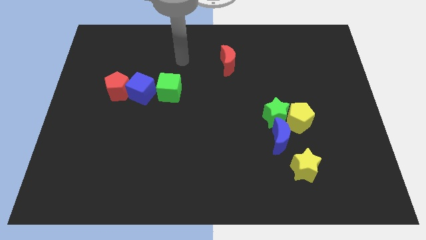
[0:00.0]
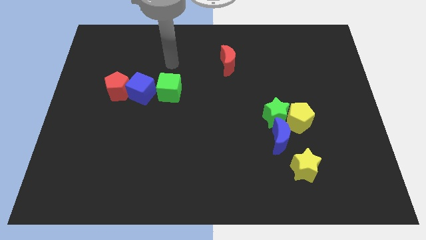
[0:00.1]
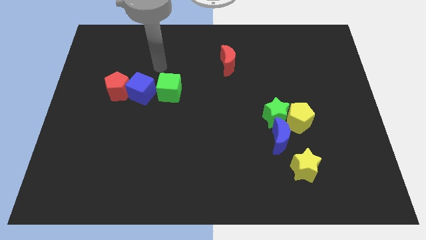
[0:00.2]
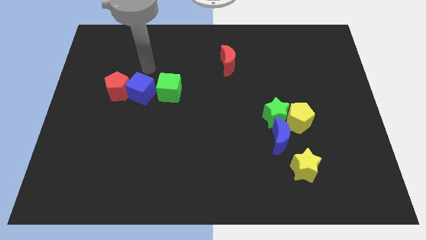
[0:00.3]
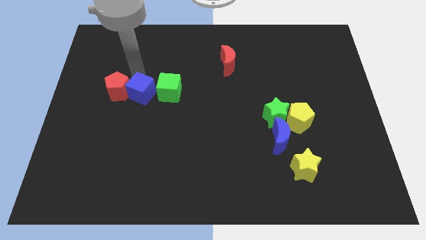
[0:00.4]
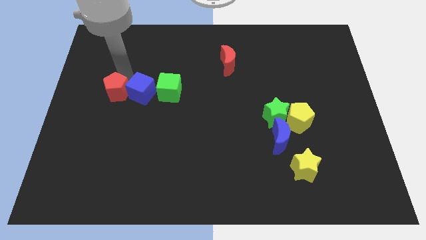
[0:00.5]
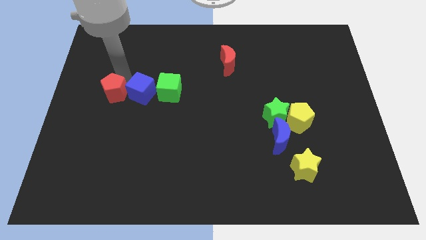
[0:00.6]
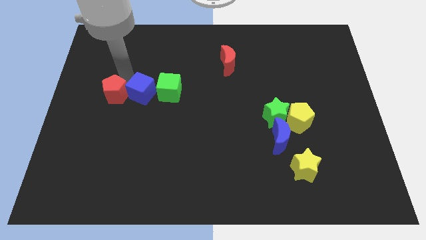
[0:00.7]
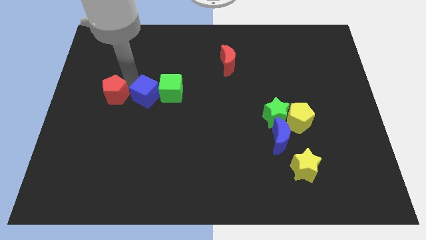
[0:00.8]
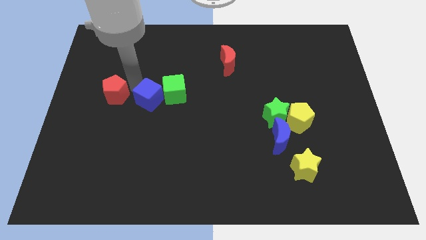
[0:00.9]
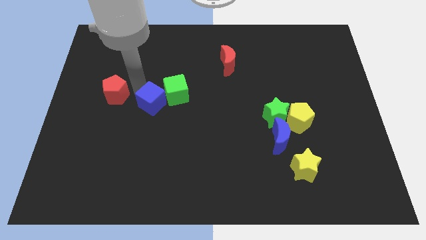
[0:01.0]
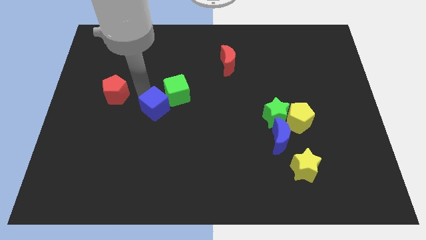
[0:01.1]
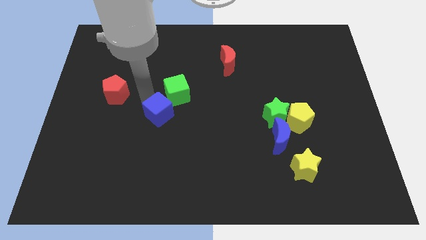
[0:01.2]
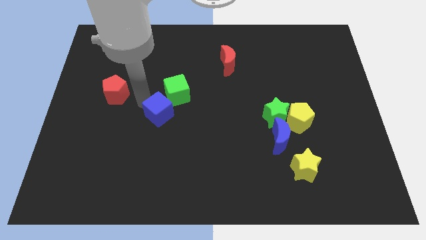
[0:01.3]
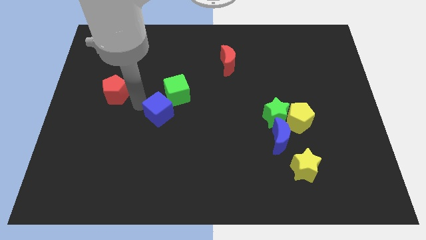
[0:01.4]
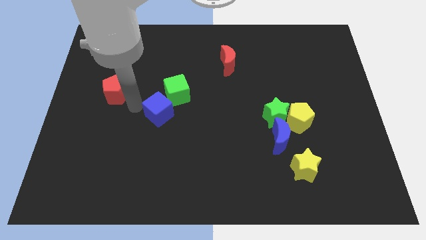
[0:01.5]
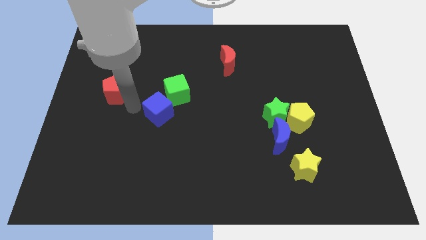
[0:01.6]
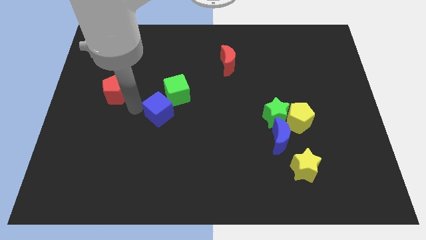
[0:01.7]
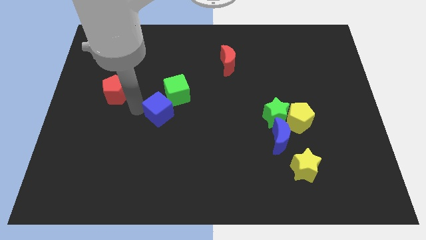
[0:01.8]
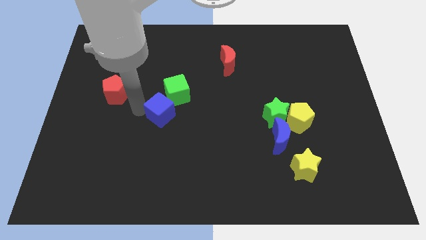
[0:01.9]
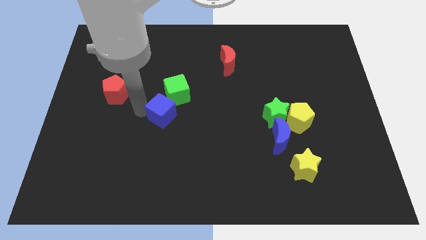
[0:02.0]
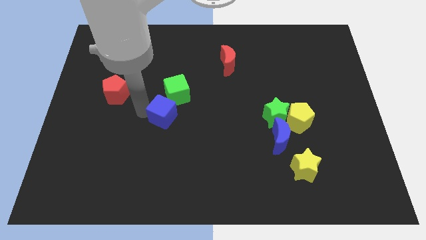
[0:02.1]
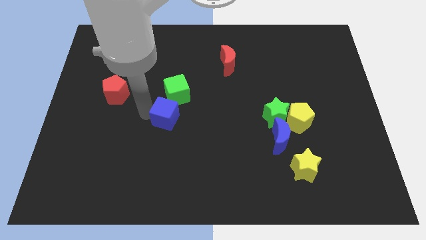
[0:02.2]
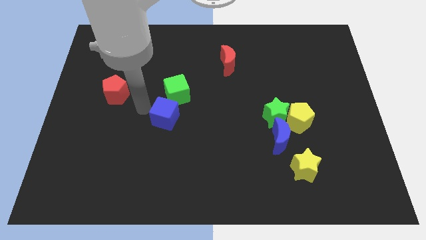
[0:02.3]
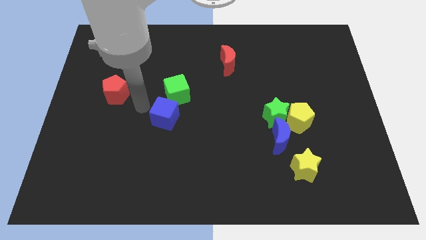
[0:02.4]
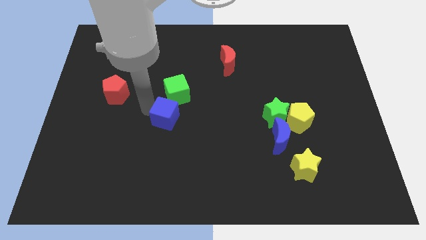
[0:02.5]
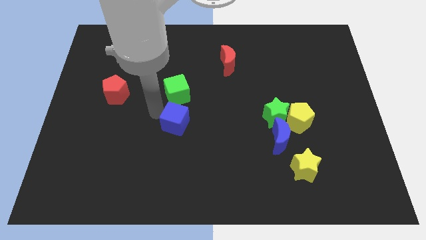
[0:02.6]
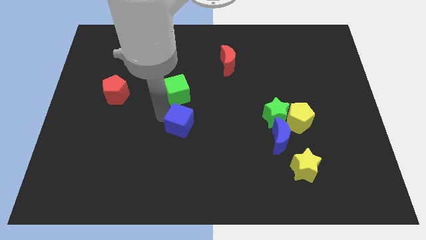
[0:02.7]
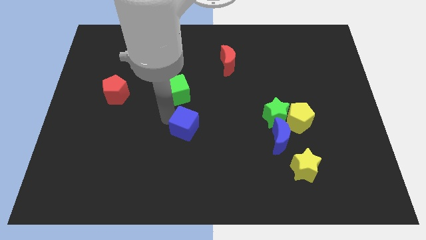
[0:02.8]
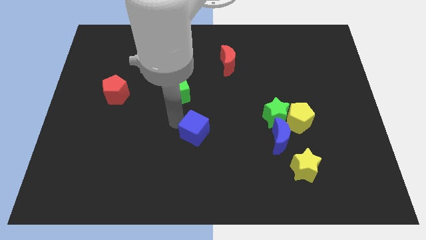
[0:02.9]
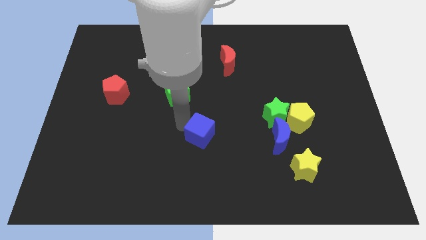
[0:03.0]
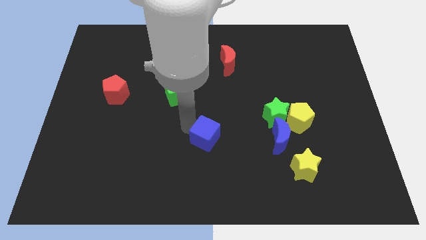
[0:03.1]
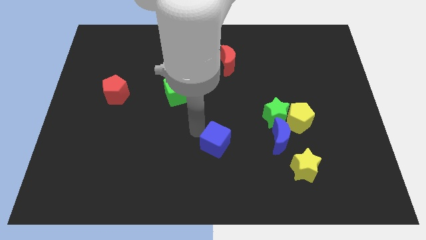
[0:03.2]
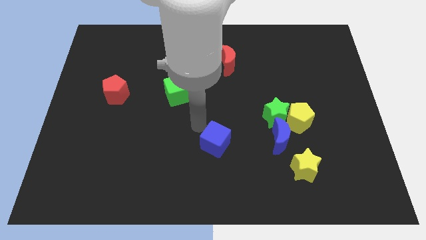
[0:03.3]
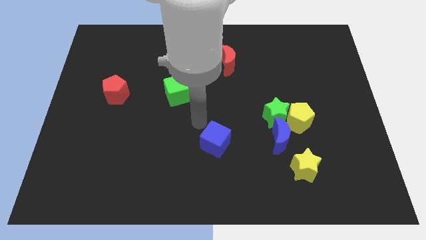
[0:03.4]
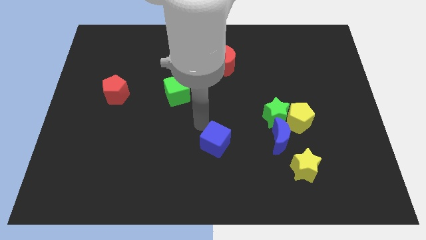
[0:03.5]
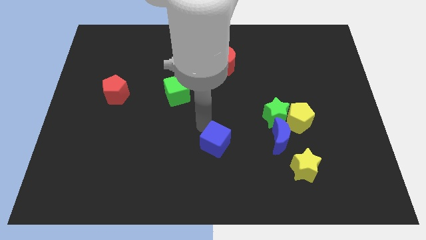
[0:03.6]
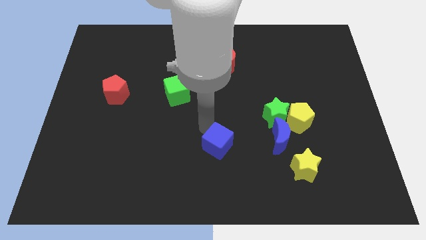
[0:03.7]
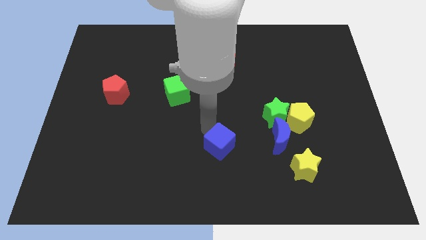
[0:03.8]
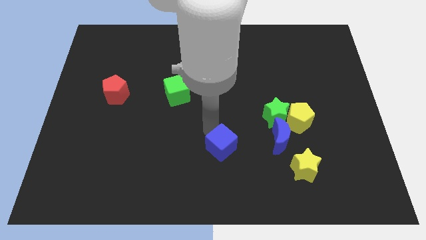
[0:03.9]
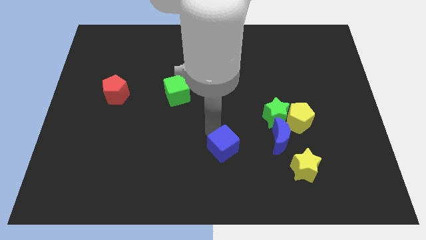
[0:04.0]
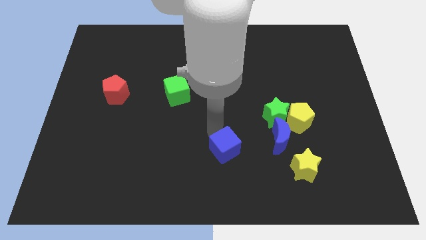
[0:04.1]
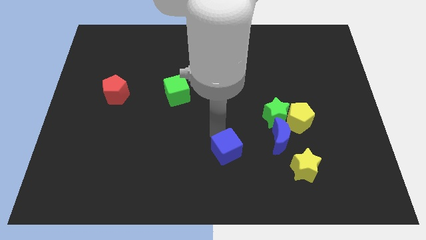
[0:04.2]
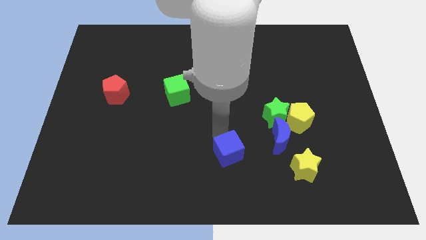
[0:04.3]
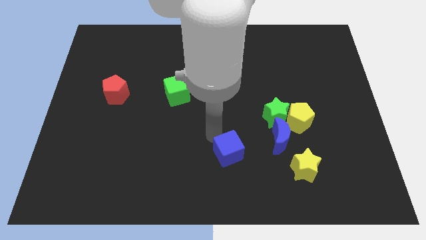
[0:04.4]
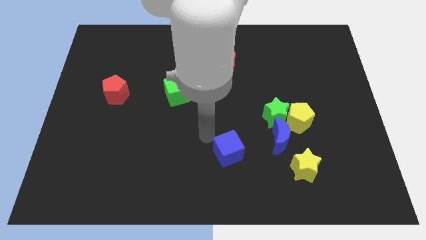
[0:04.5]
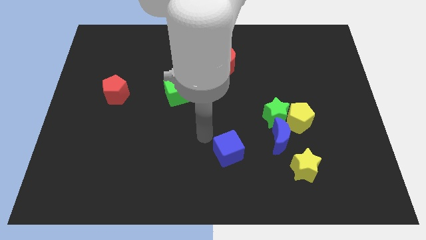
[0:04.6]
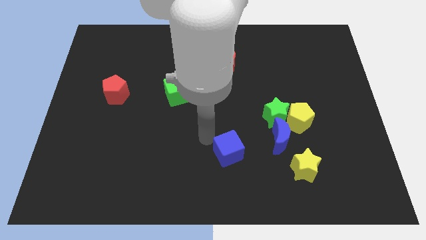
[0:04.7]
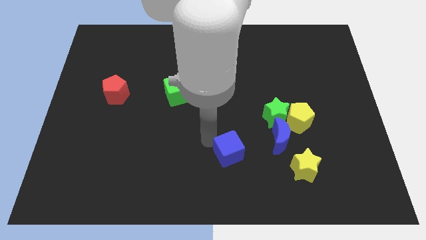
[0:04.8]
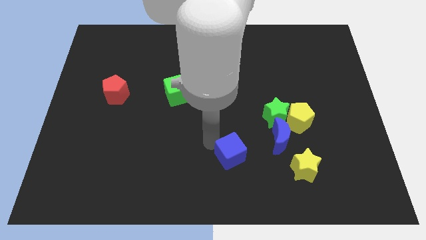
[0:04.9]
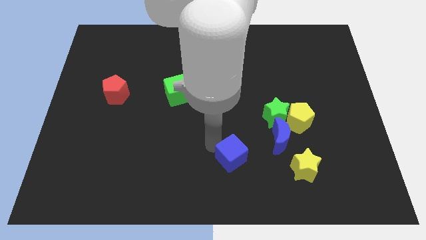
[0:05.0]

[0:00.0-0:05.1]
put the blue cube left of the yellow star

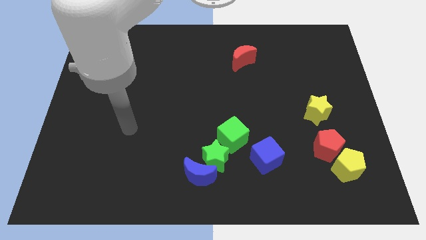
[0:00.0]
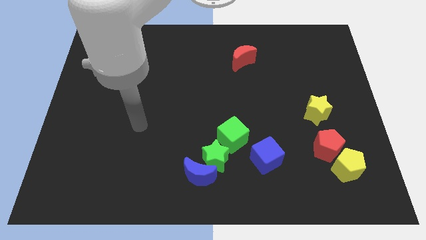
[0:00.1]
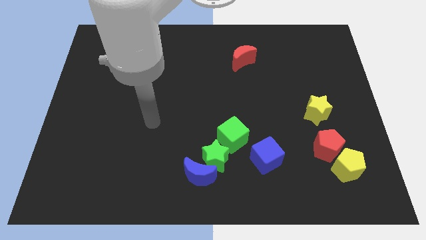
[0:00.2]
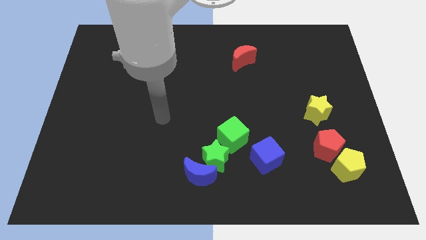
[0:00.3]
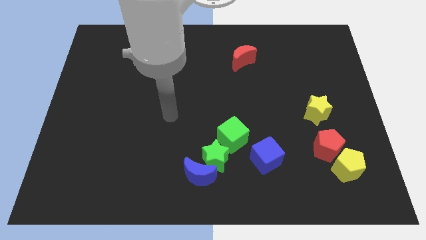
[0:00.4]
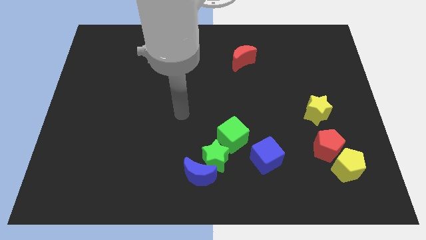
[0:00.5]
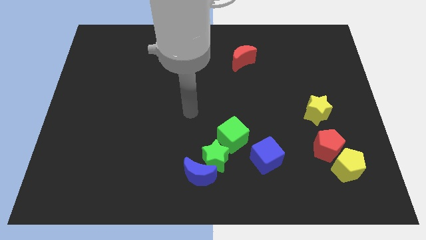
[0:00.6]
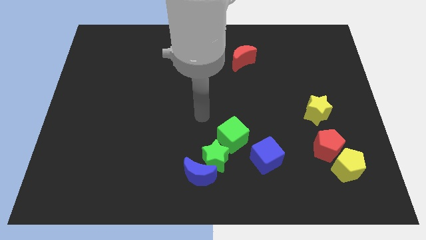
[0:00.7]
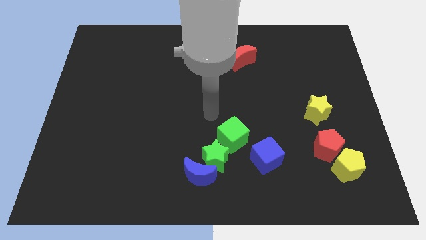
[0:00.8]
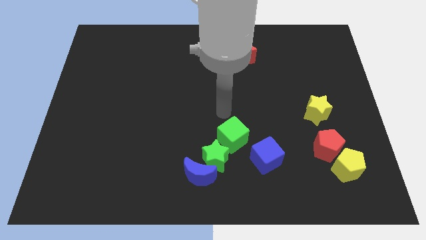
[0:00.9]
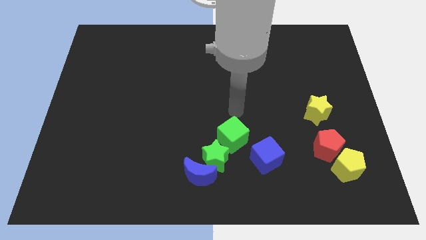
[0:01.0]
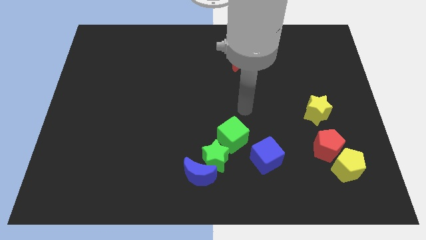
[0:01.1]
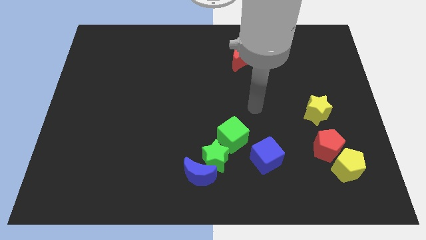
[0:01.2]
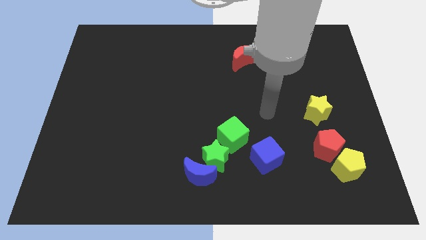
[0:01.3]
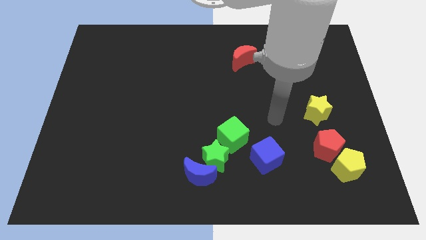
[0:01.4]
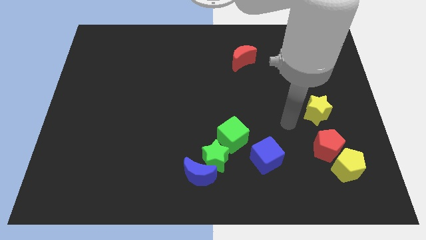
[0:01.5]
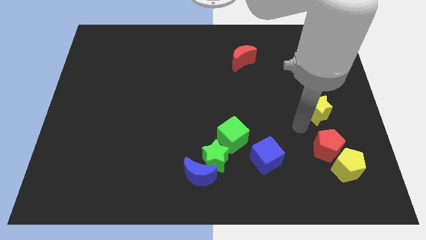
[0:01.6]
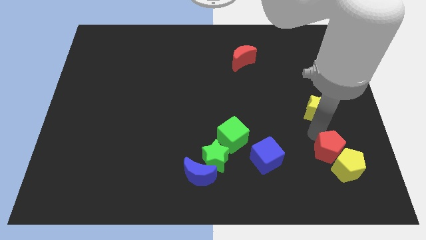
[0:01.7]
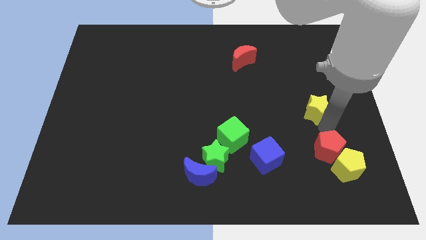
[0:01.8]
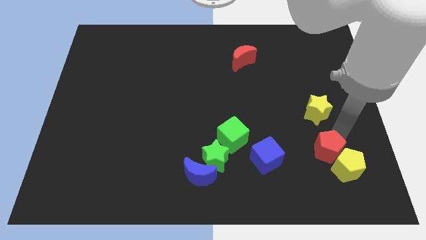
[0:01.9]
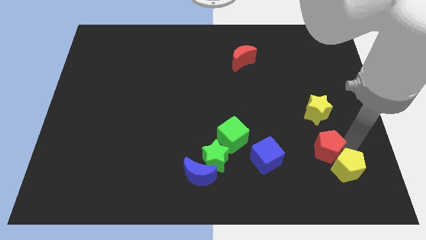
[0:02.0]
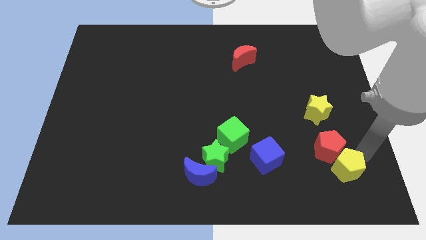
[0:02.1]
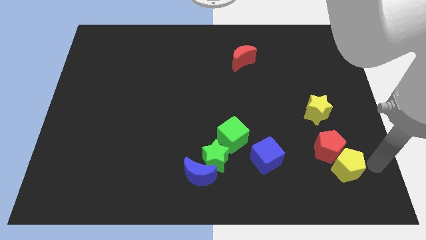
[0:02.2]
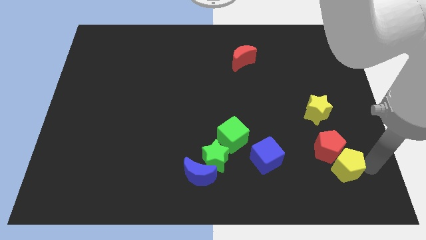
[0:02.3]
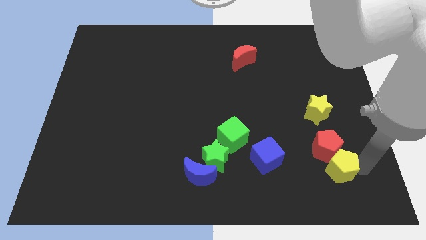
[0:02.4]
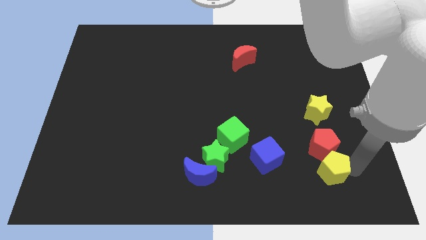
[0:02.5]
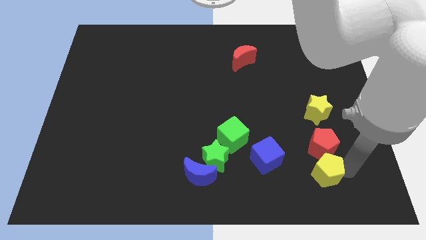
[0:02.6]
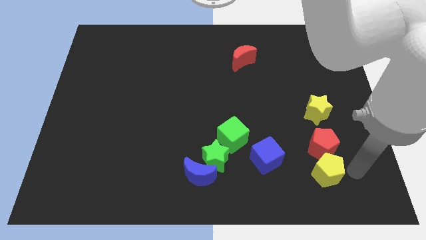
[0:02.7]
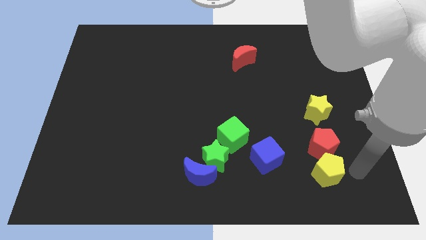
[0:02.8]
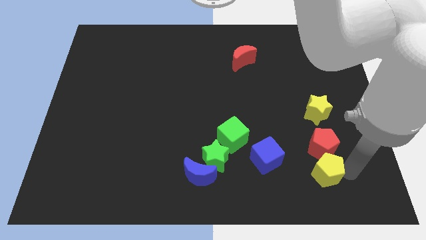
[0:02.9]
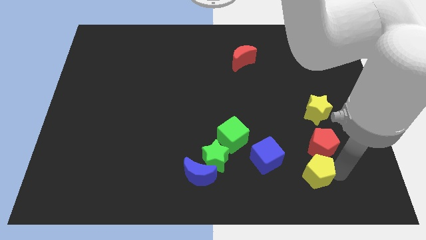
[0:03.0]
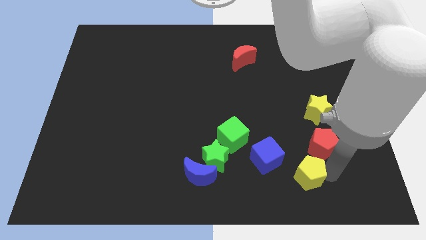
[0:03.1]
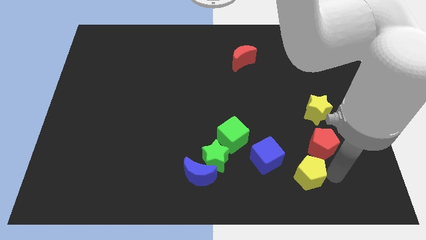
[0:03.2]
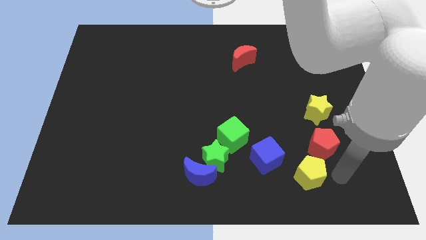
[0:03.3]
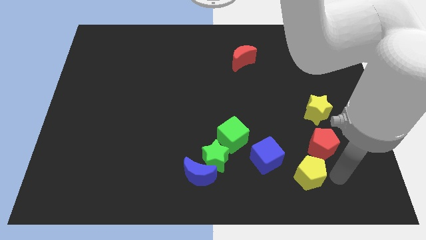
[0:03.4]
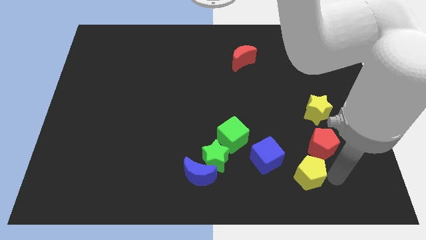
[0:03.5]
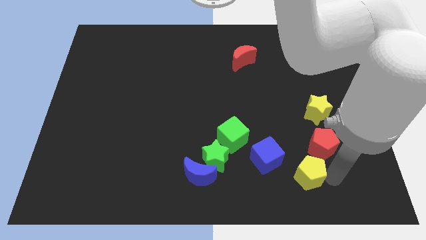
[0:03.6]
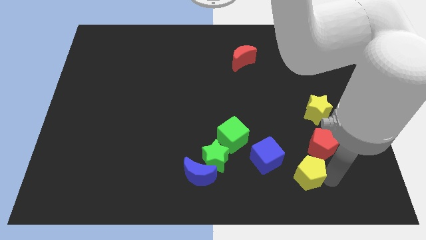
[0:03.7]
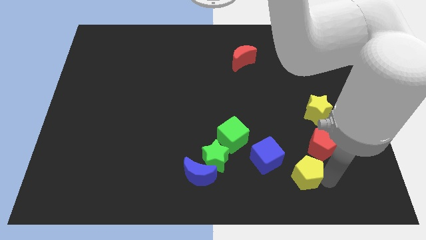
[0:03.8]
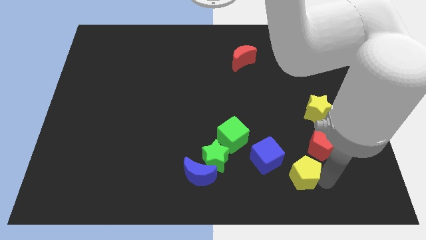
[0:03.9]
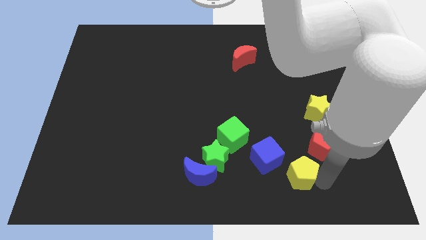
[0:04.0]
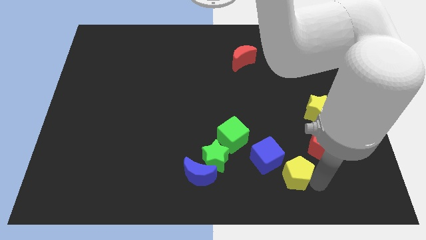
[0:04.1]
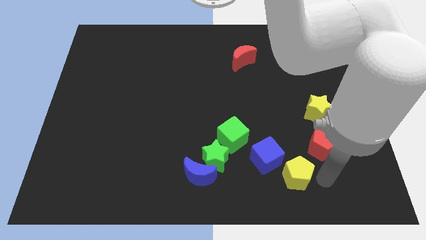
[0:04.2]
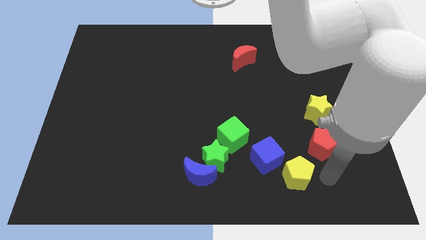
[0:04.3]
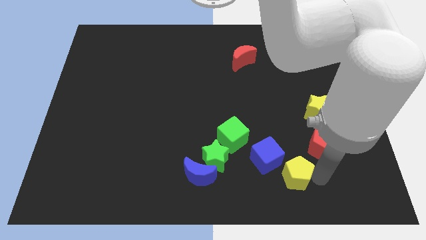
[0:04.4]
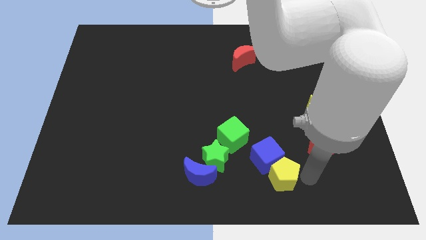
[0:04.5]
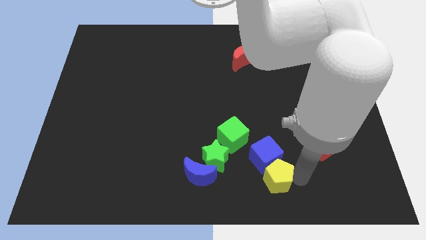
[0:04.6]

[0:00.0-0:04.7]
put the yellow pentagon right of the blue moon
